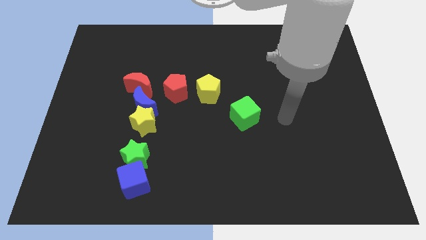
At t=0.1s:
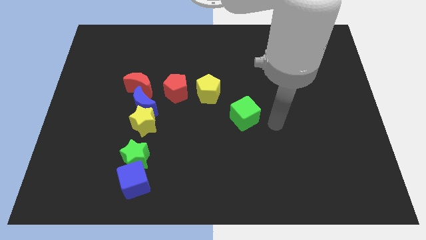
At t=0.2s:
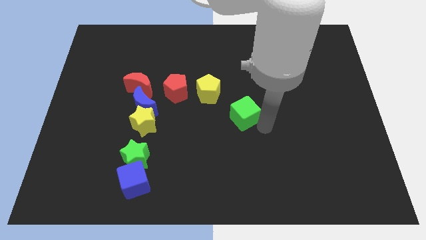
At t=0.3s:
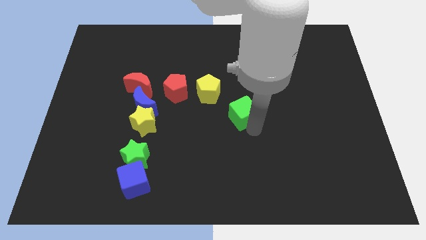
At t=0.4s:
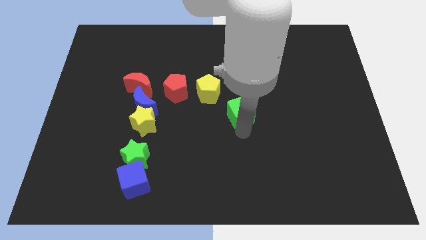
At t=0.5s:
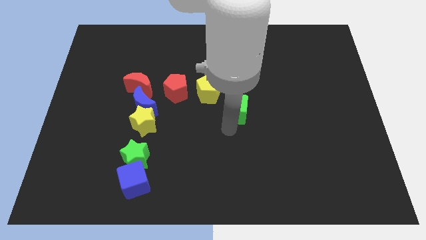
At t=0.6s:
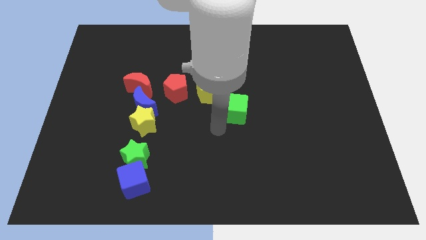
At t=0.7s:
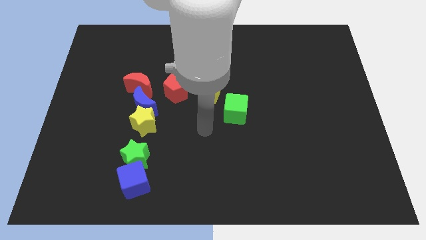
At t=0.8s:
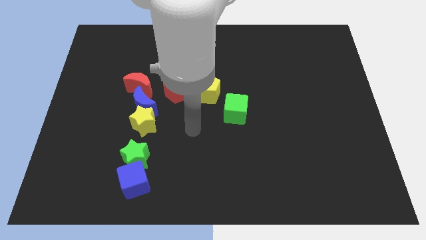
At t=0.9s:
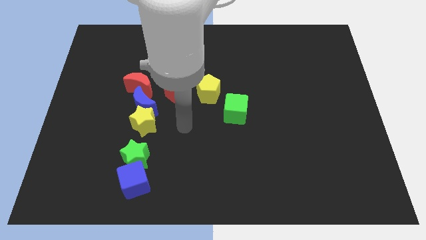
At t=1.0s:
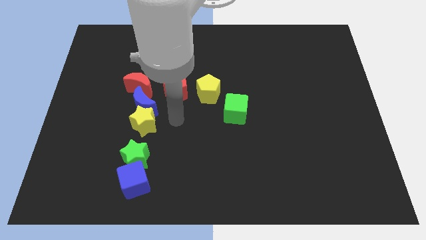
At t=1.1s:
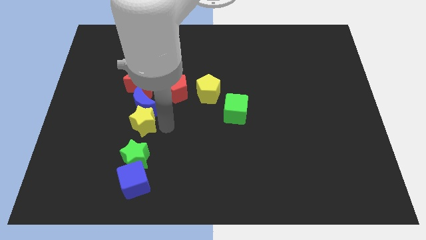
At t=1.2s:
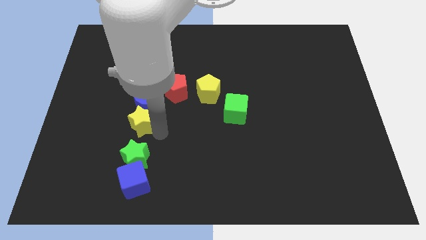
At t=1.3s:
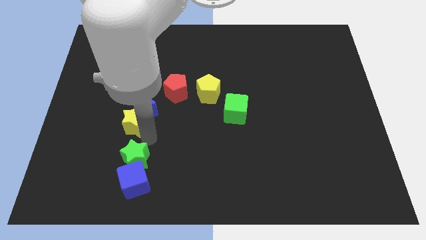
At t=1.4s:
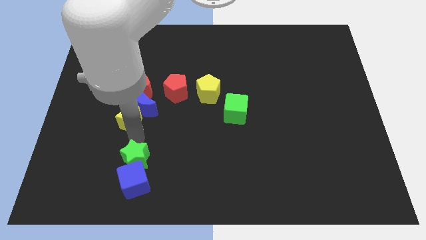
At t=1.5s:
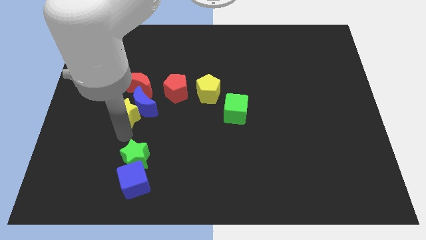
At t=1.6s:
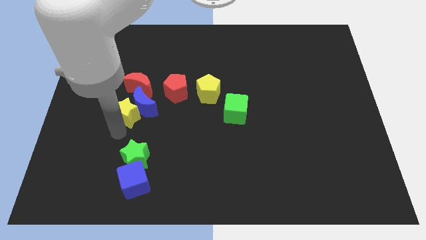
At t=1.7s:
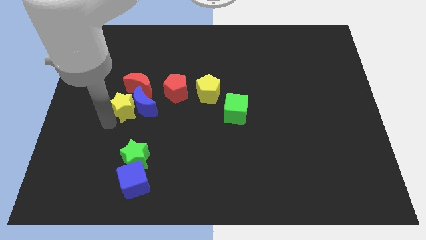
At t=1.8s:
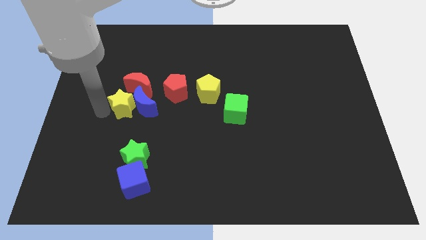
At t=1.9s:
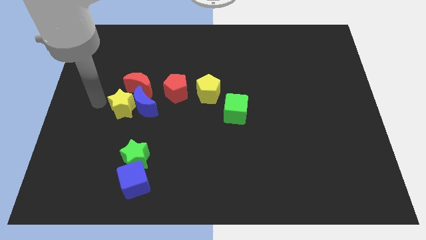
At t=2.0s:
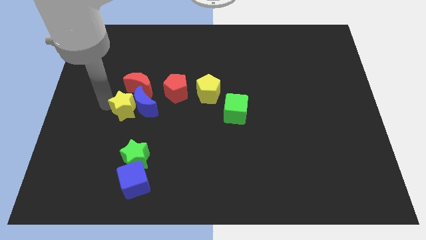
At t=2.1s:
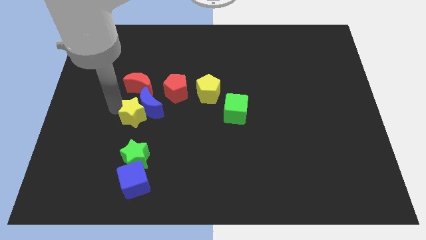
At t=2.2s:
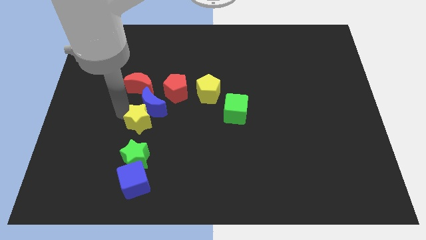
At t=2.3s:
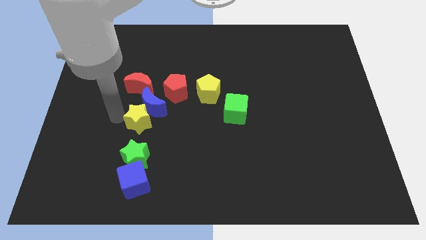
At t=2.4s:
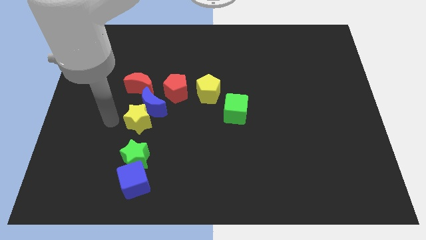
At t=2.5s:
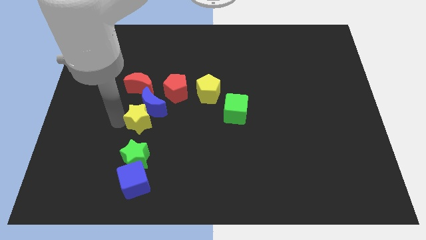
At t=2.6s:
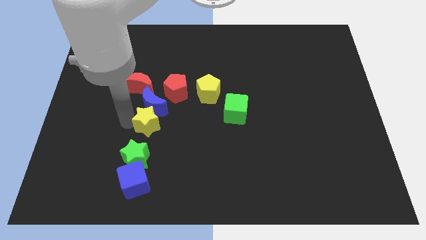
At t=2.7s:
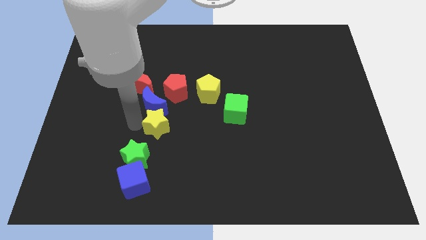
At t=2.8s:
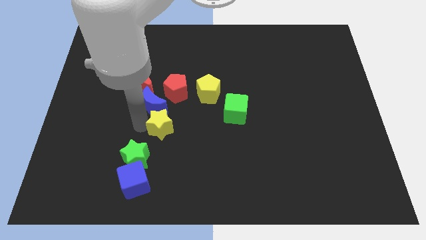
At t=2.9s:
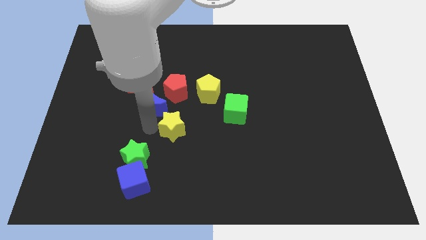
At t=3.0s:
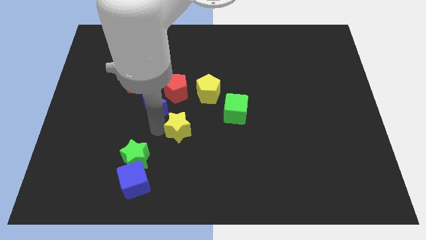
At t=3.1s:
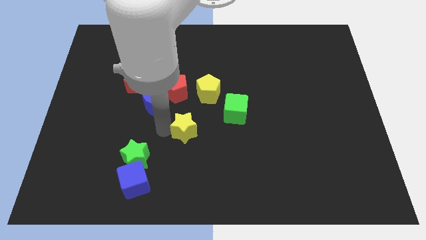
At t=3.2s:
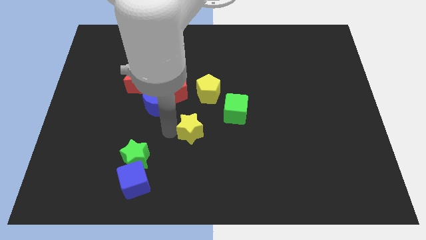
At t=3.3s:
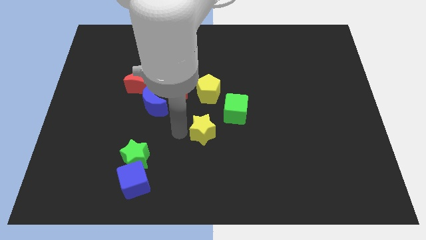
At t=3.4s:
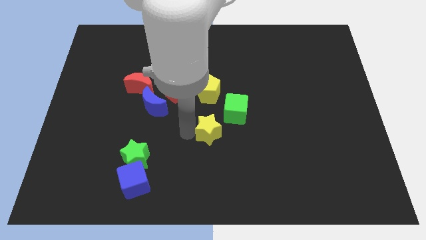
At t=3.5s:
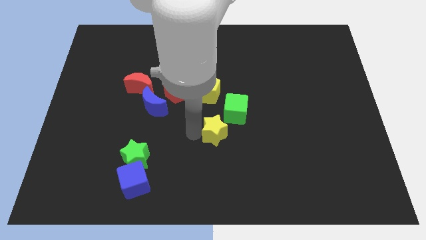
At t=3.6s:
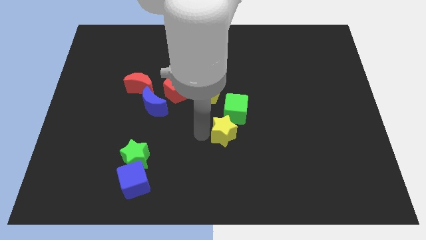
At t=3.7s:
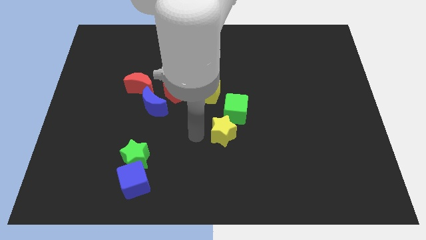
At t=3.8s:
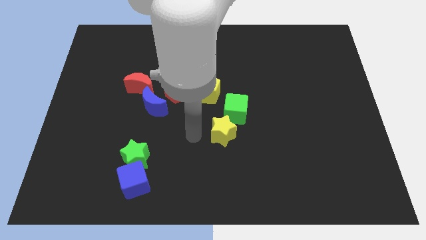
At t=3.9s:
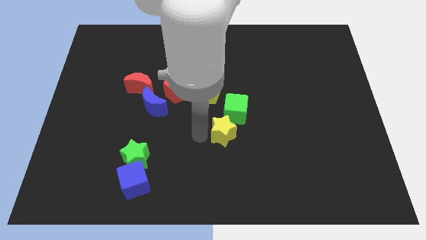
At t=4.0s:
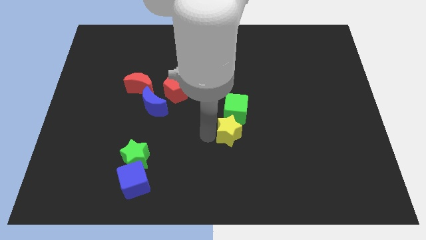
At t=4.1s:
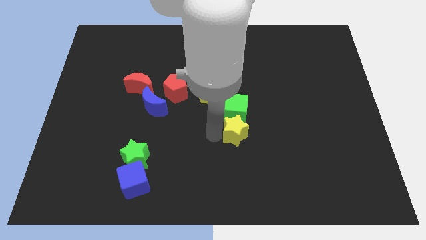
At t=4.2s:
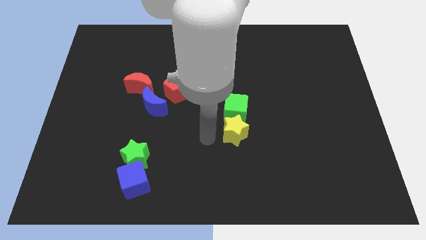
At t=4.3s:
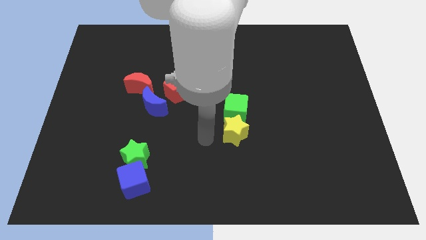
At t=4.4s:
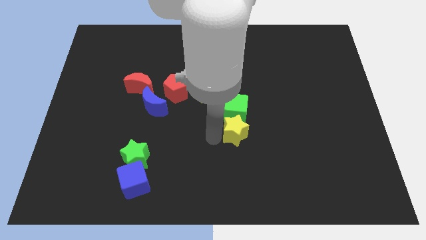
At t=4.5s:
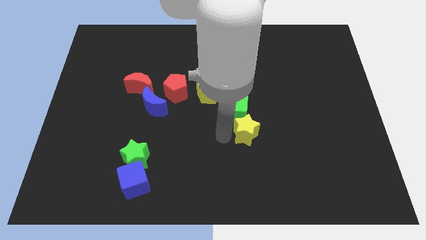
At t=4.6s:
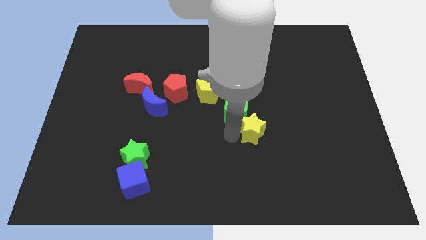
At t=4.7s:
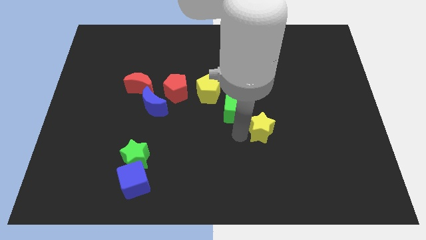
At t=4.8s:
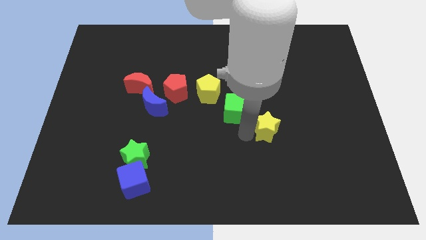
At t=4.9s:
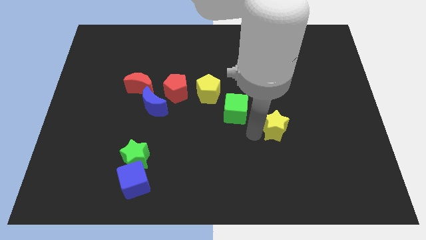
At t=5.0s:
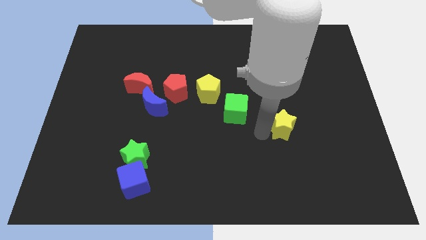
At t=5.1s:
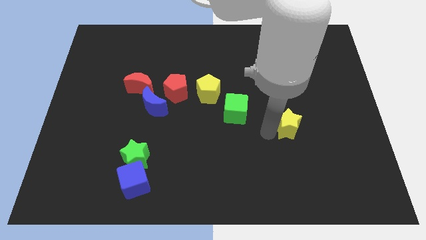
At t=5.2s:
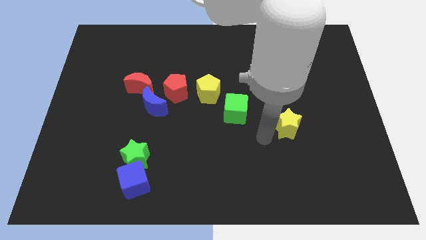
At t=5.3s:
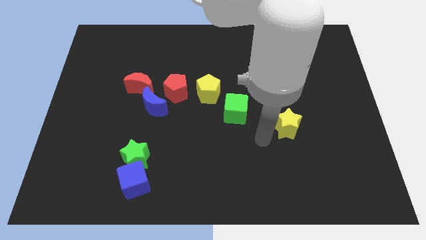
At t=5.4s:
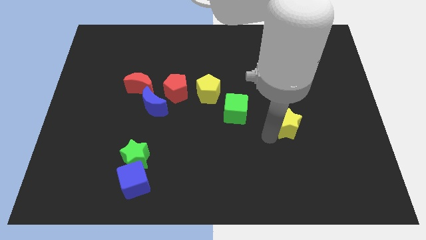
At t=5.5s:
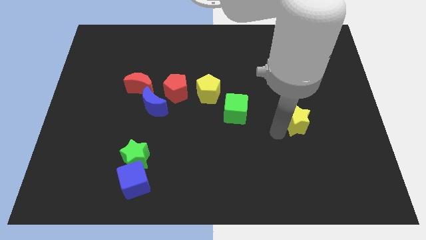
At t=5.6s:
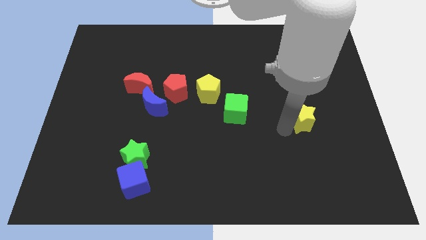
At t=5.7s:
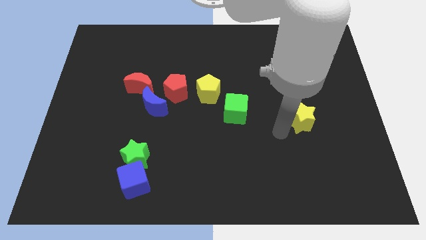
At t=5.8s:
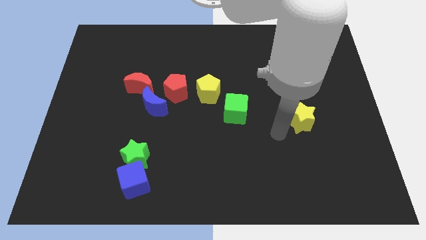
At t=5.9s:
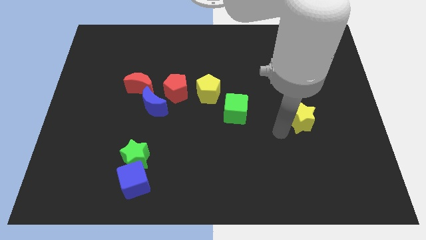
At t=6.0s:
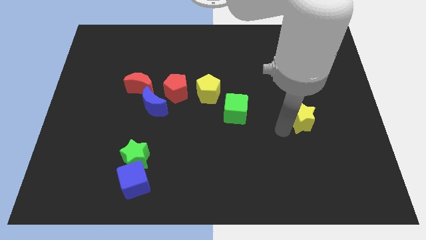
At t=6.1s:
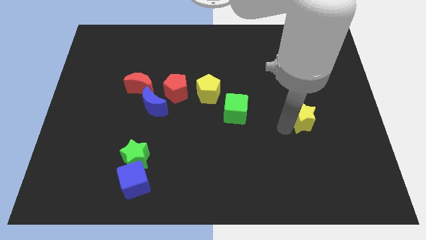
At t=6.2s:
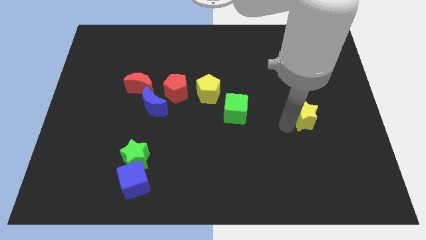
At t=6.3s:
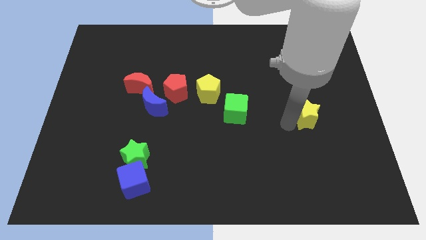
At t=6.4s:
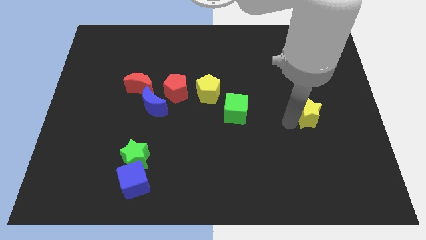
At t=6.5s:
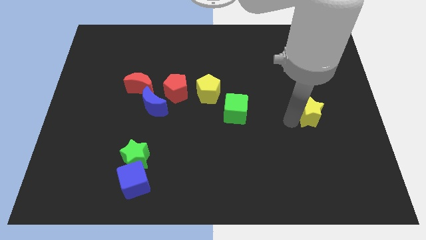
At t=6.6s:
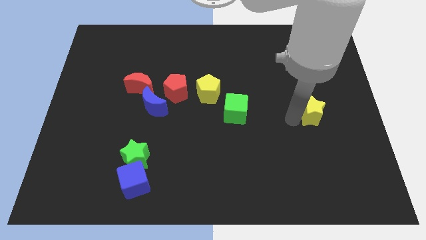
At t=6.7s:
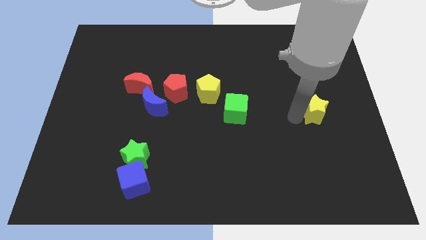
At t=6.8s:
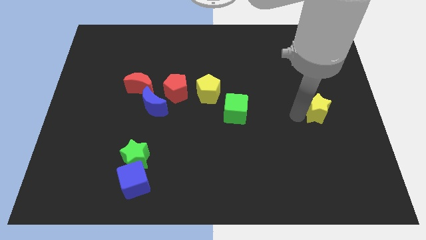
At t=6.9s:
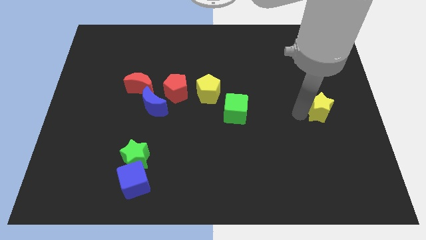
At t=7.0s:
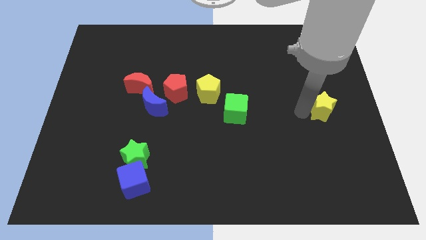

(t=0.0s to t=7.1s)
slide the yellow star to the right side of the board
